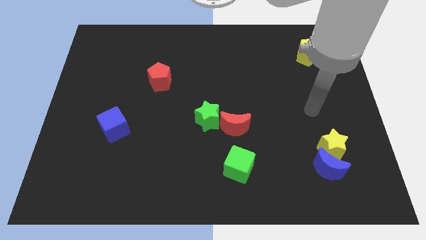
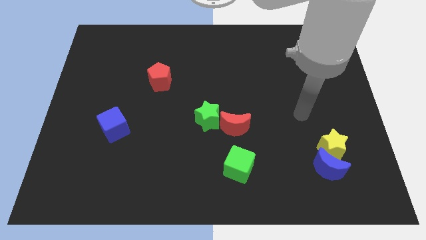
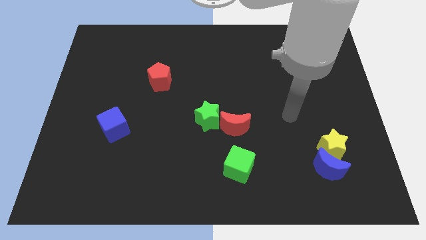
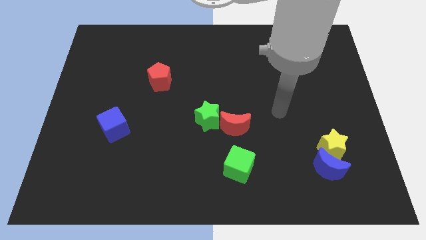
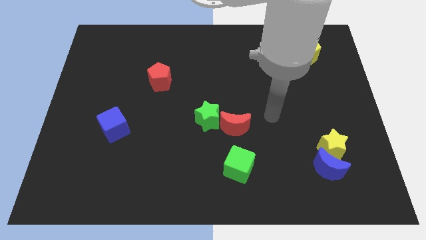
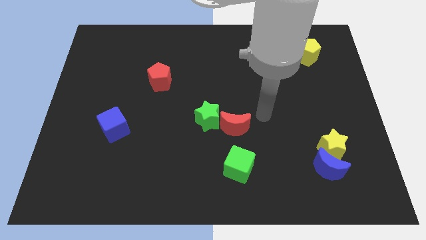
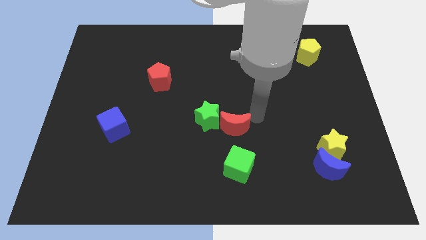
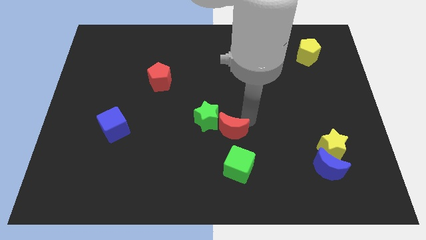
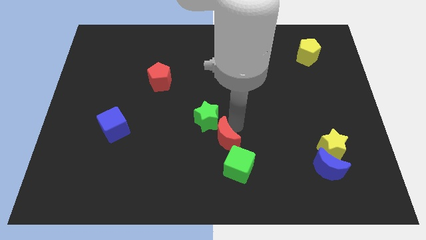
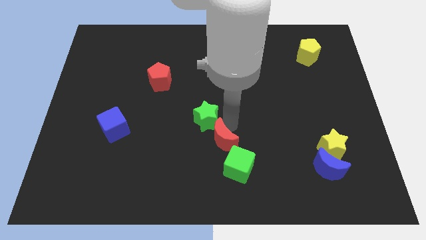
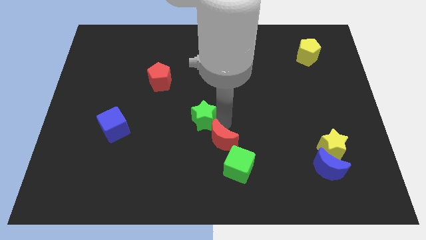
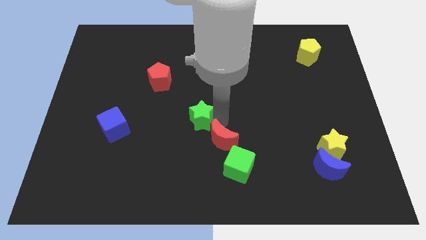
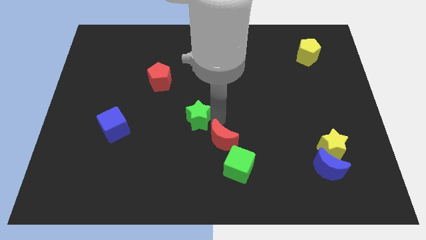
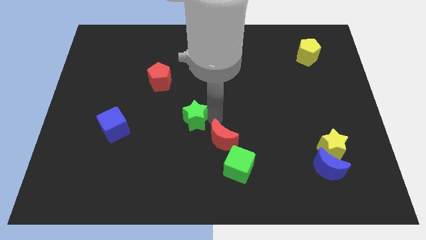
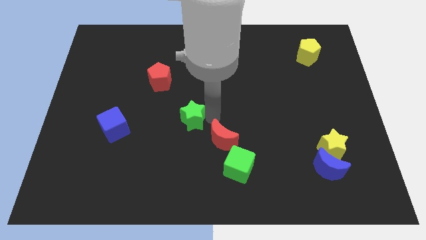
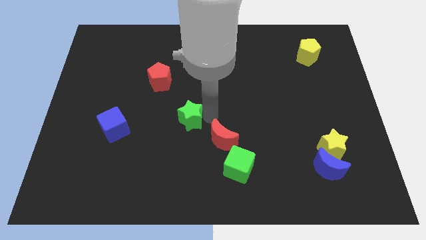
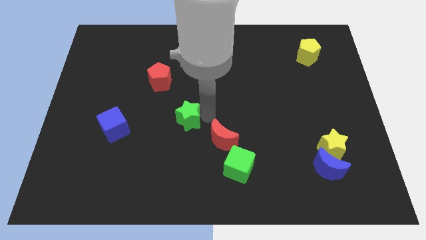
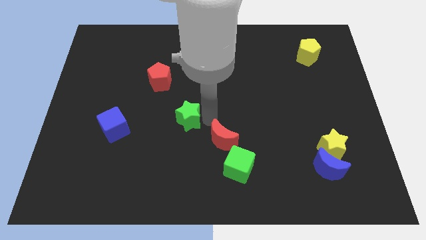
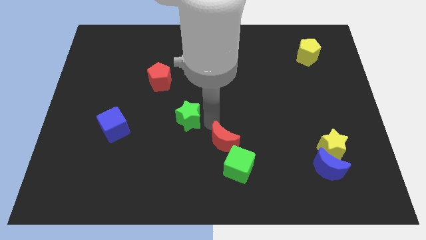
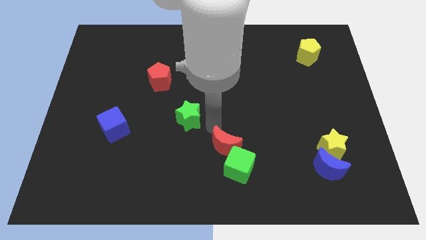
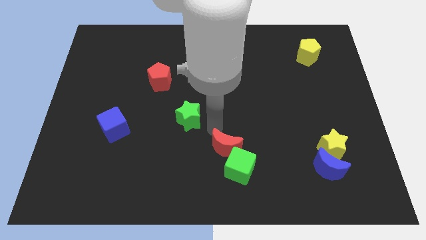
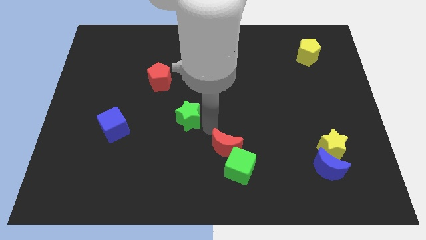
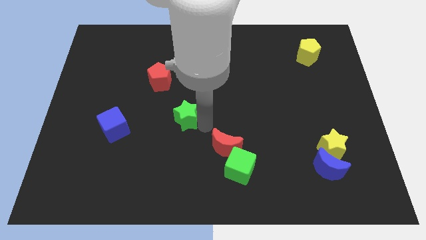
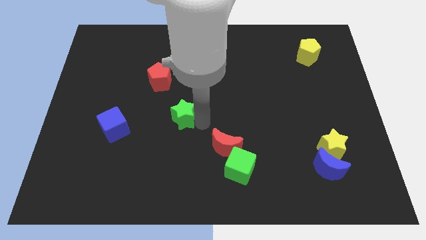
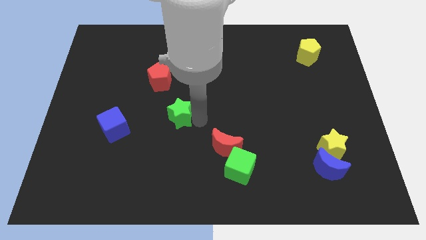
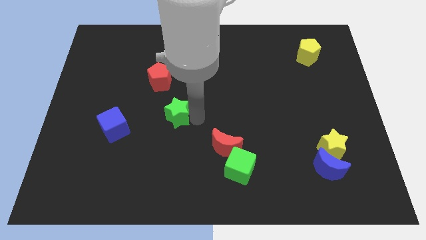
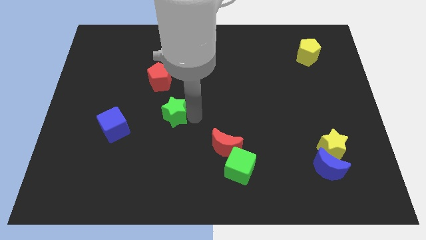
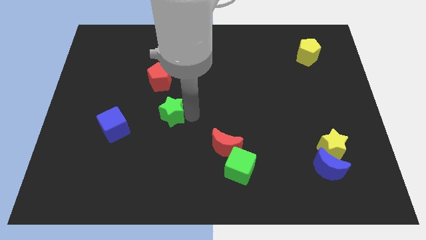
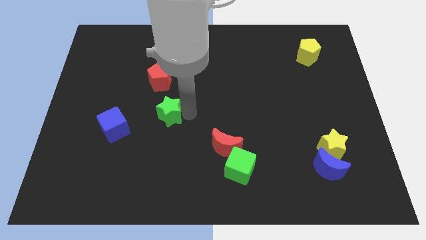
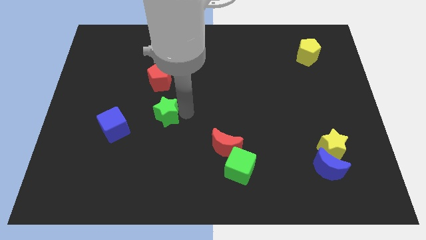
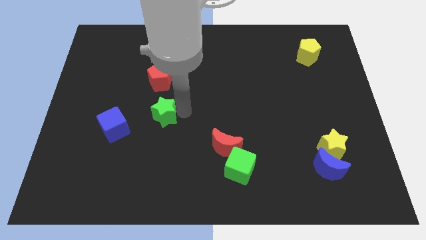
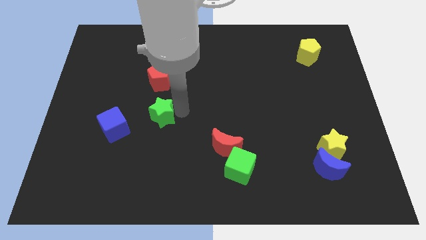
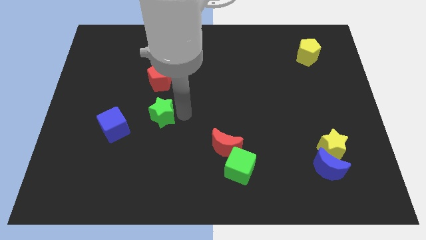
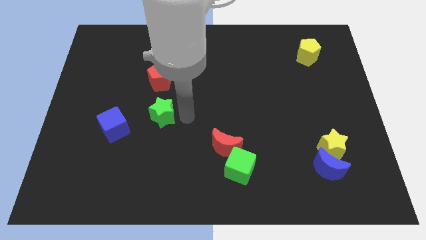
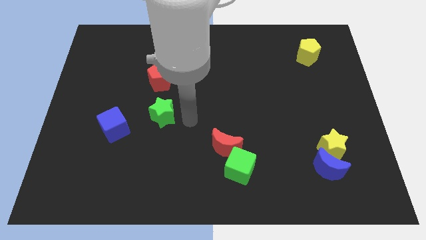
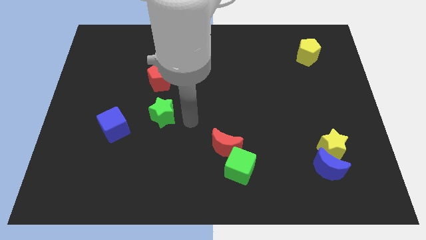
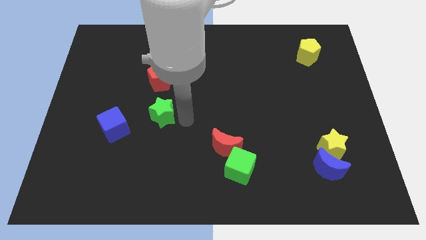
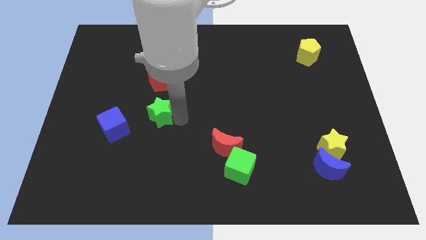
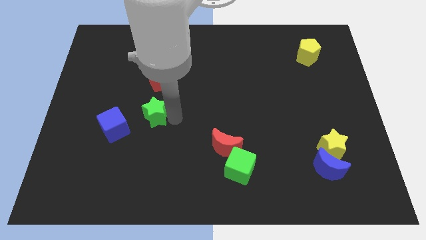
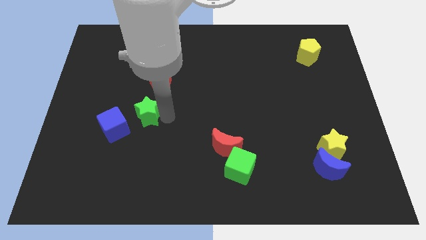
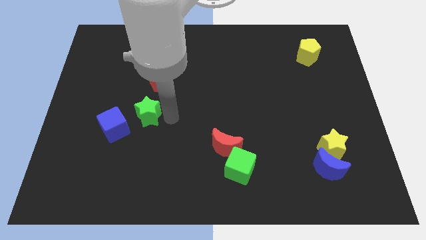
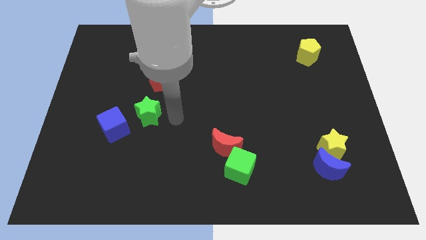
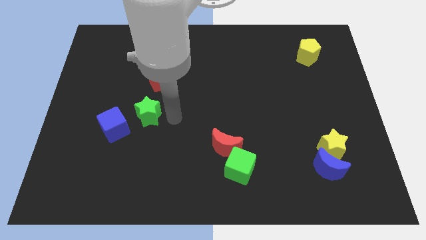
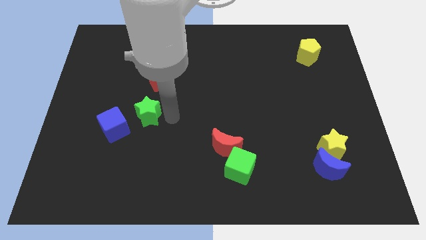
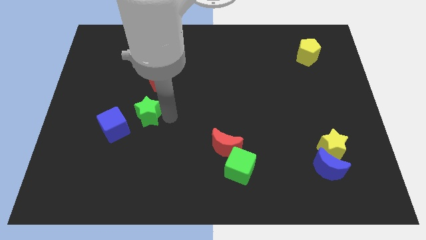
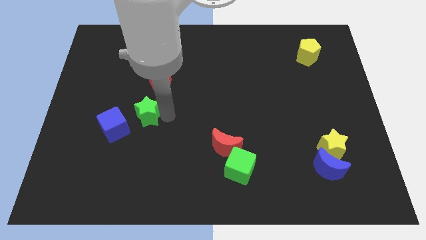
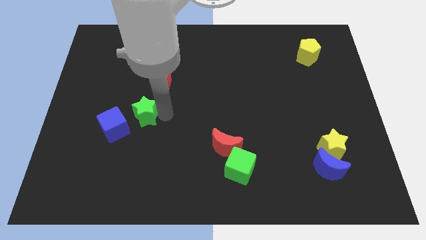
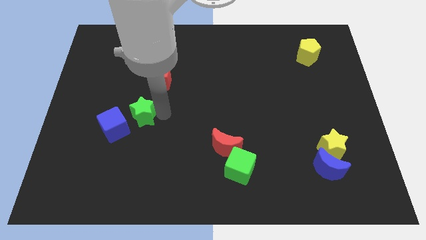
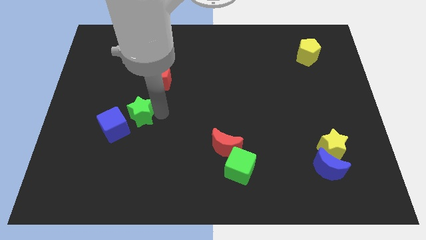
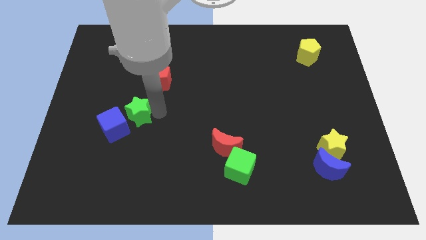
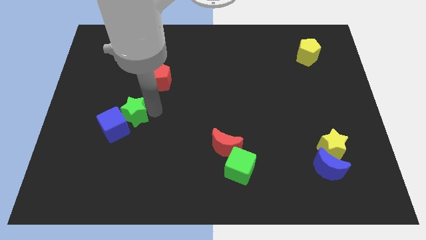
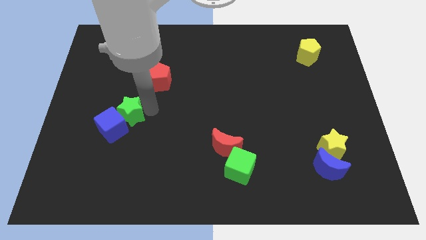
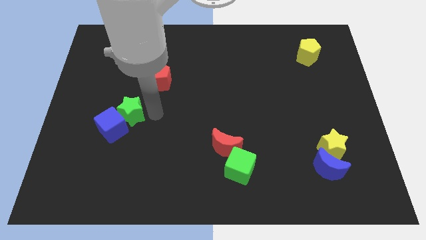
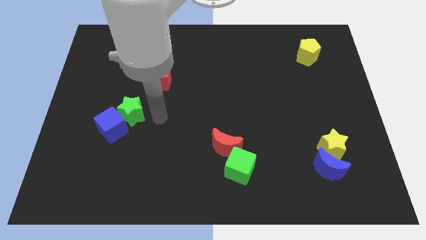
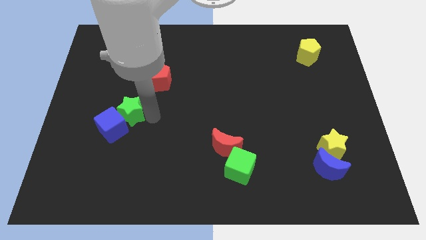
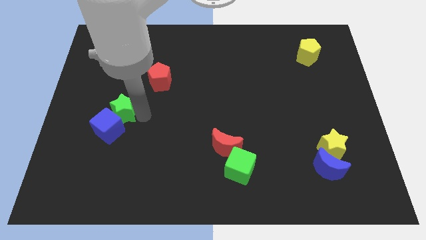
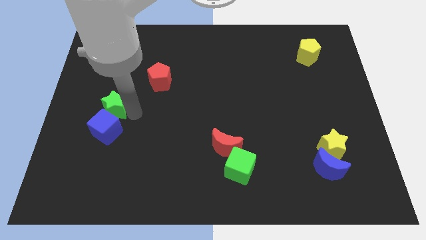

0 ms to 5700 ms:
move the green star to the top left side of the blue cube

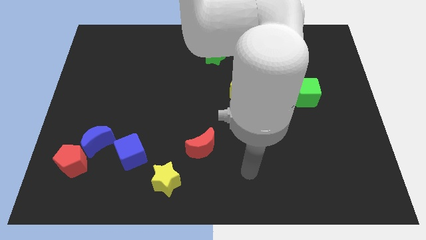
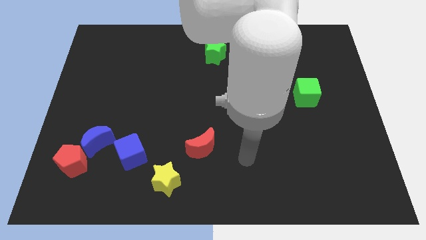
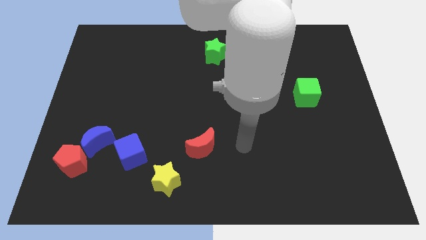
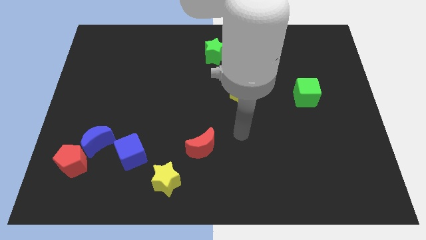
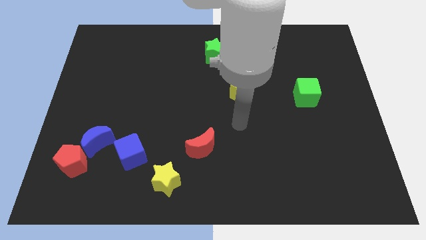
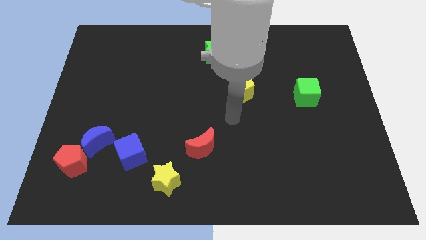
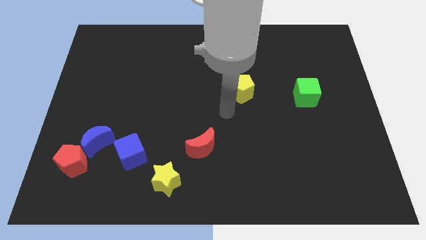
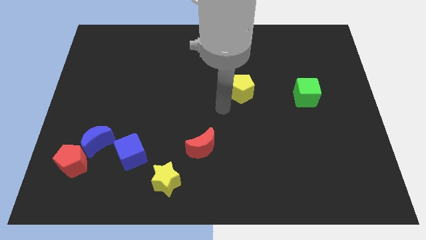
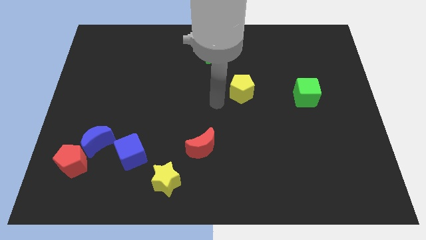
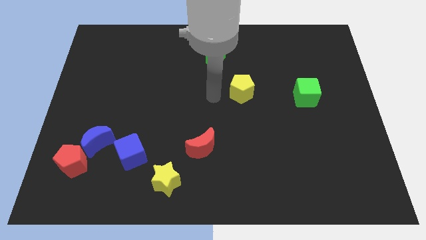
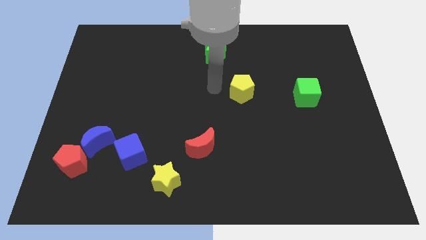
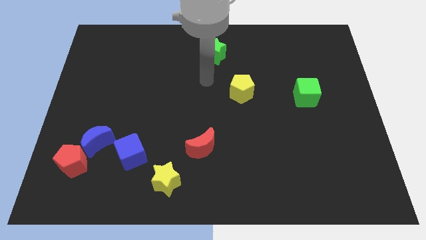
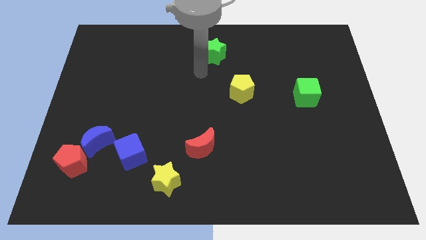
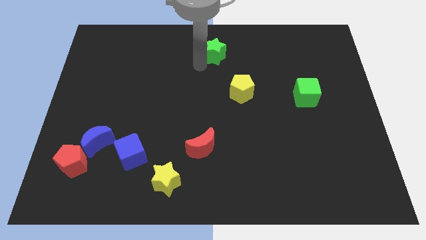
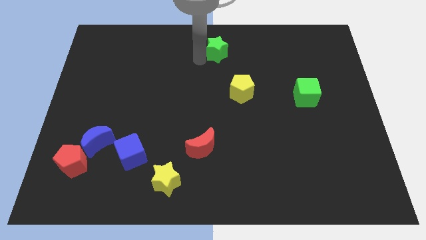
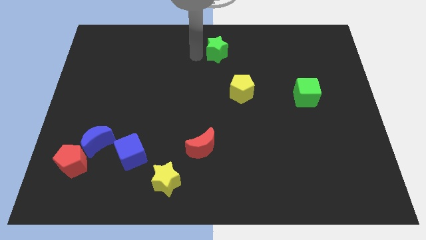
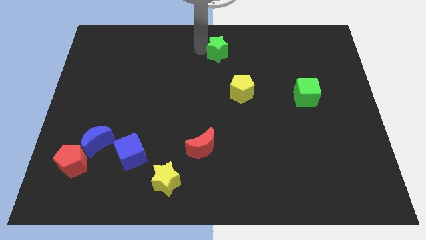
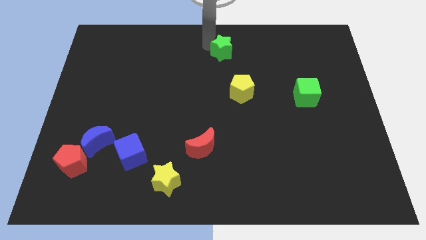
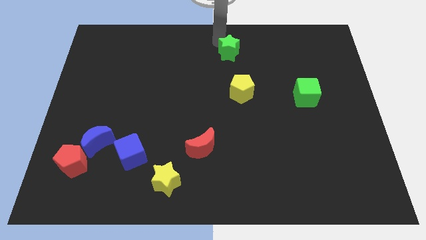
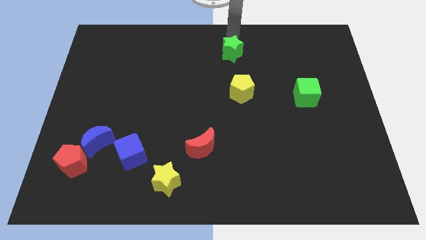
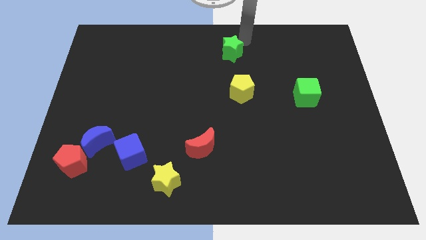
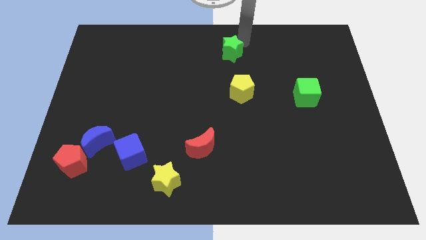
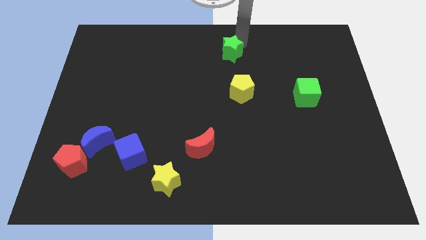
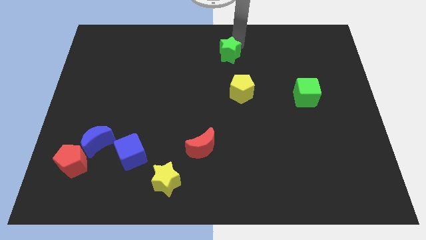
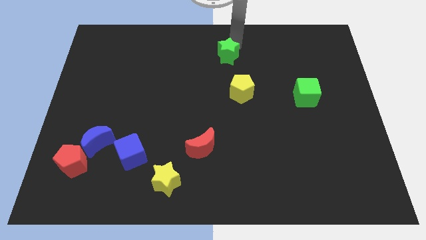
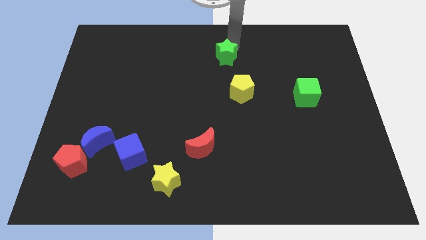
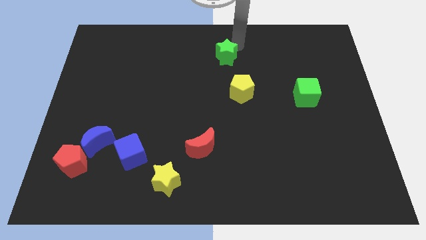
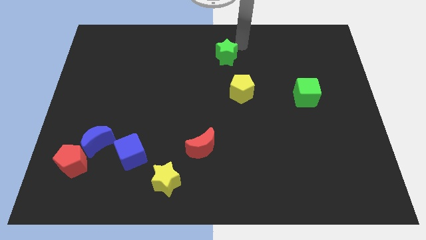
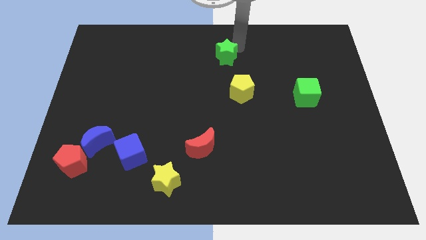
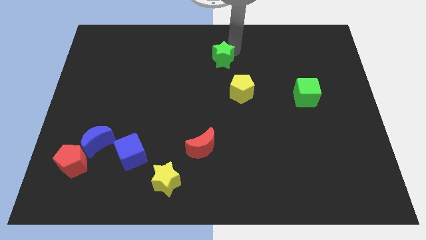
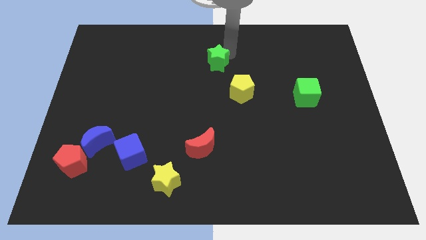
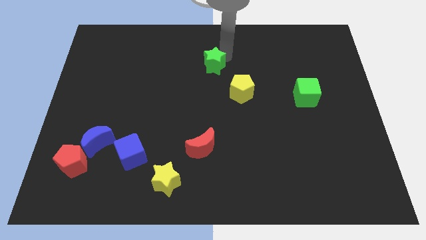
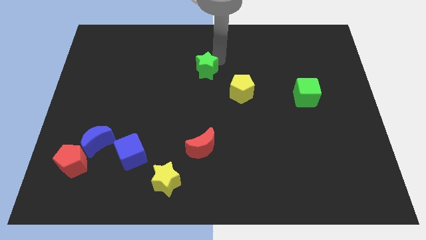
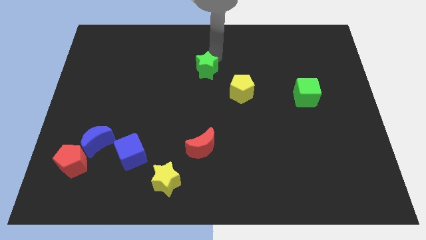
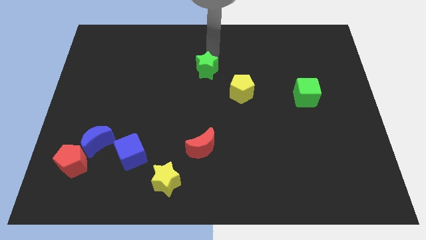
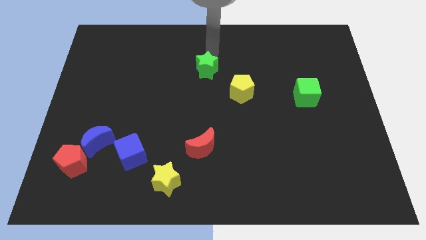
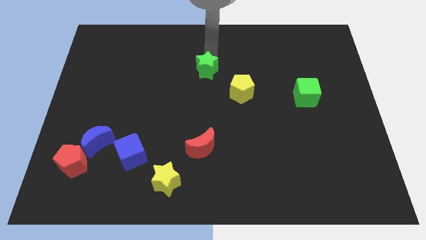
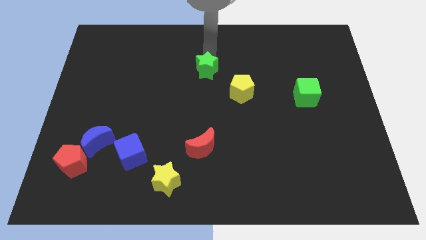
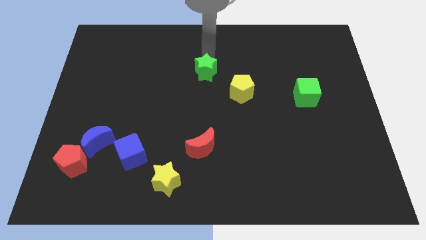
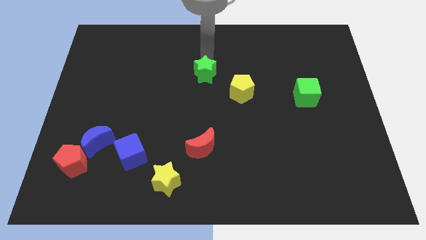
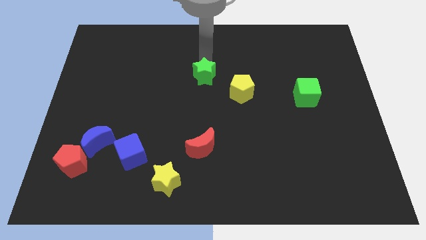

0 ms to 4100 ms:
push the green star left of the yellow pentagon
